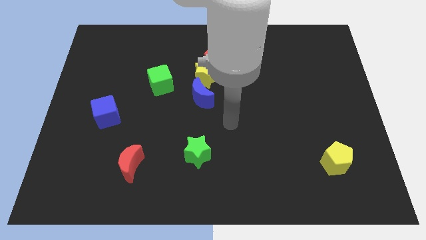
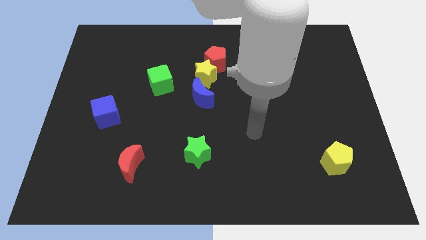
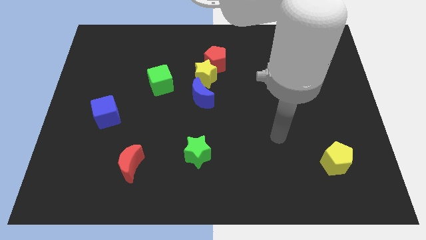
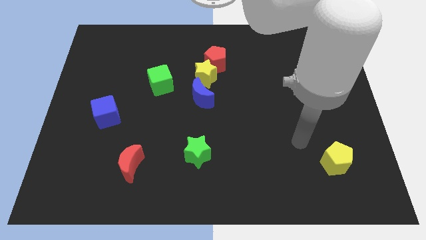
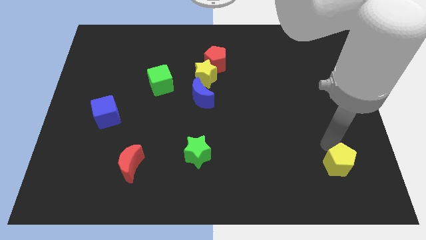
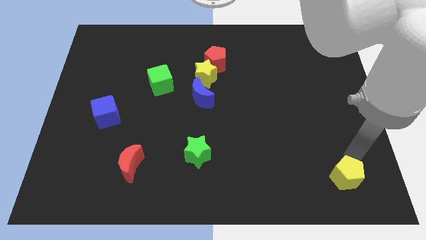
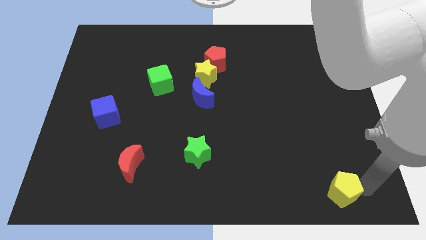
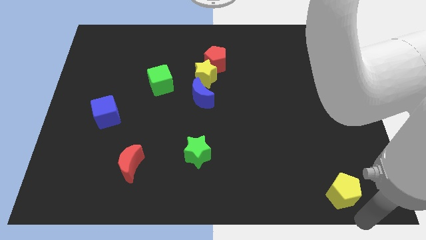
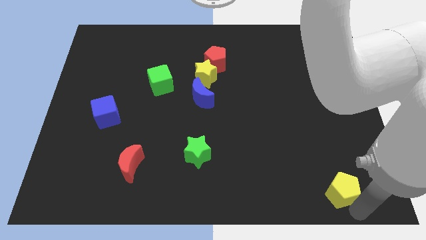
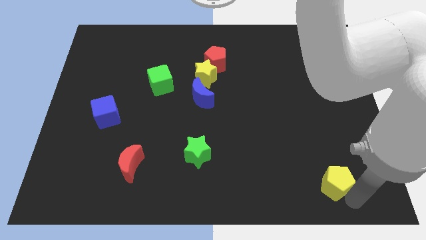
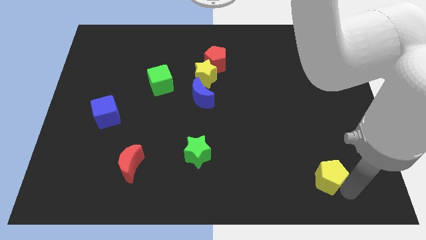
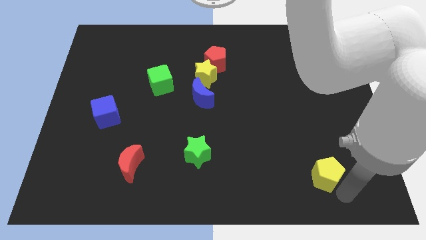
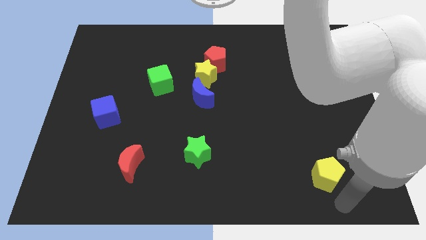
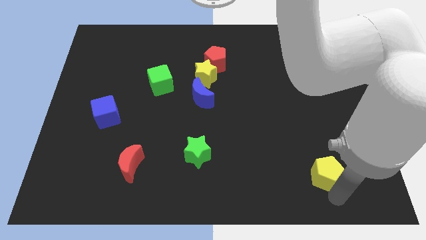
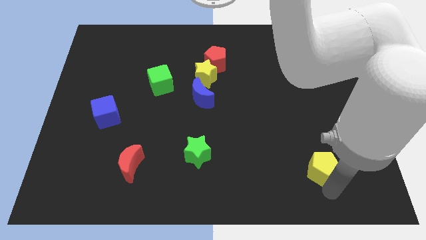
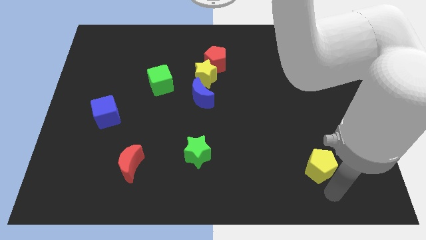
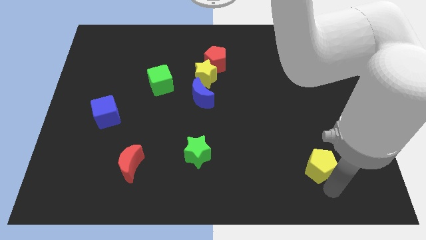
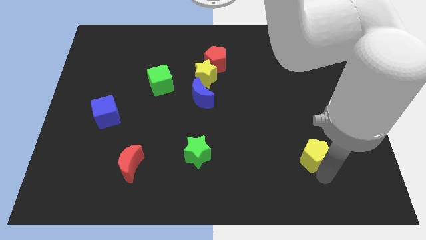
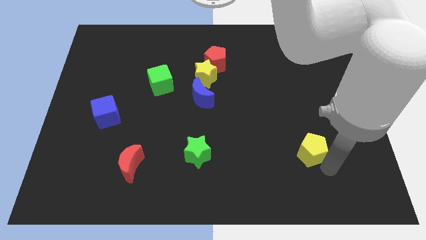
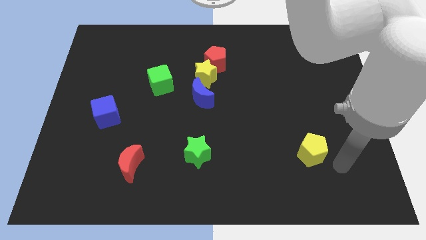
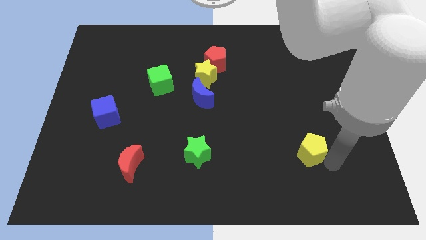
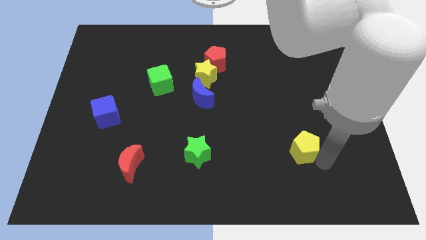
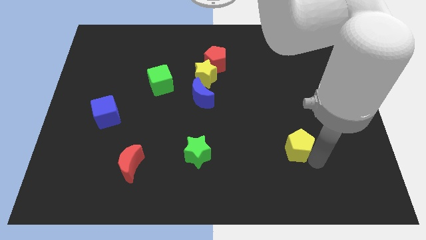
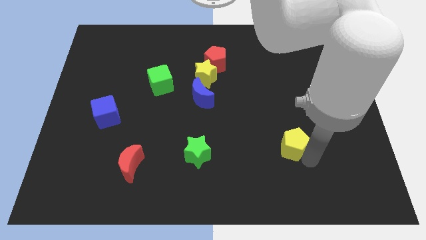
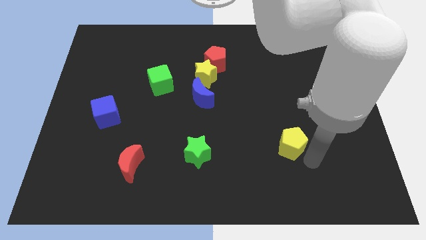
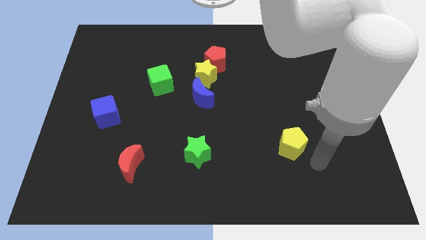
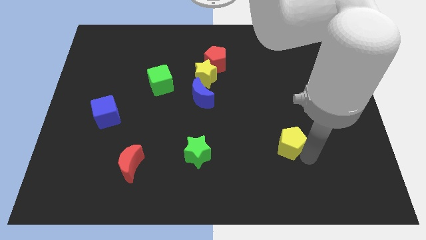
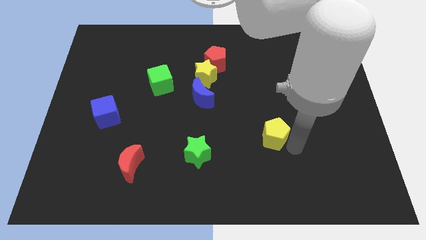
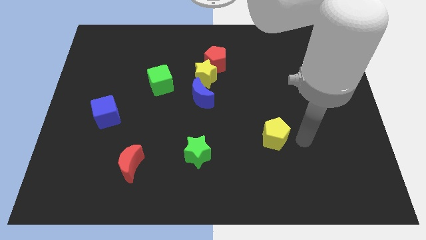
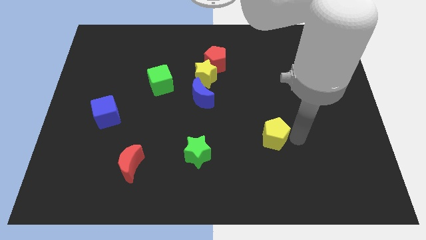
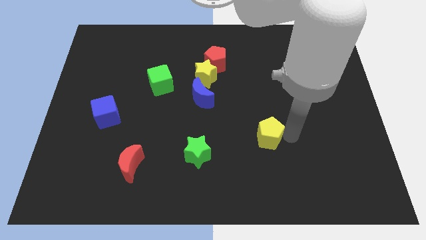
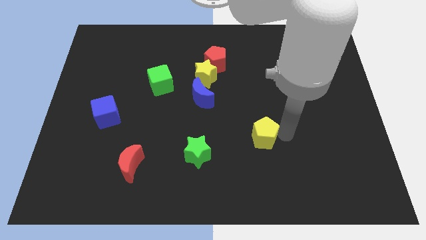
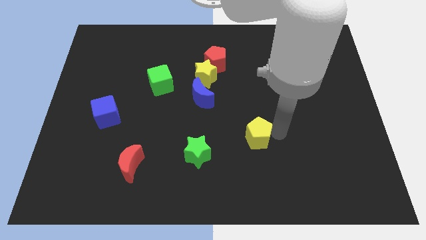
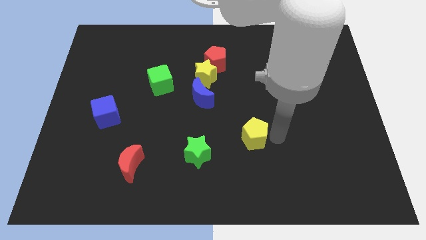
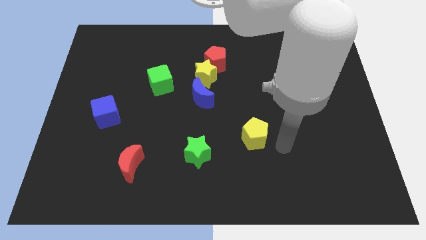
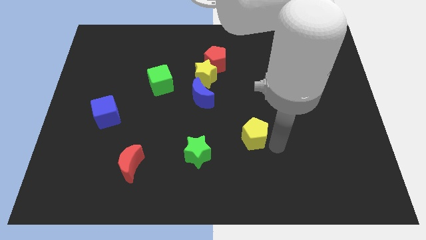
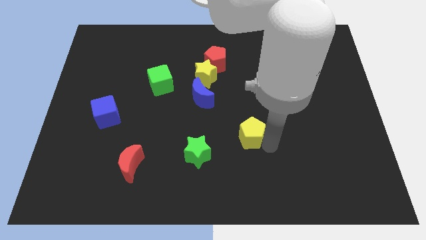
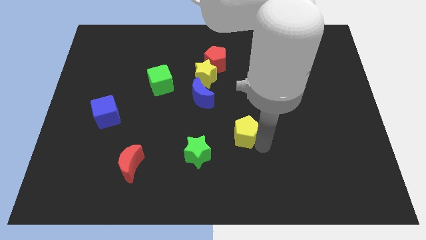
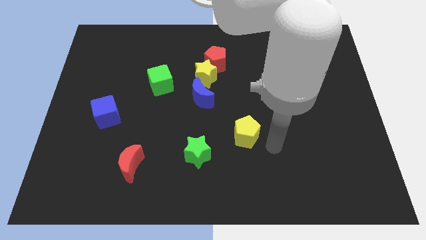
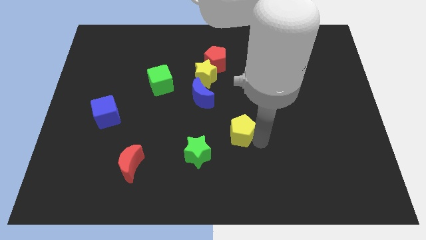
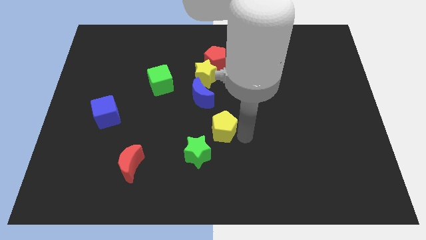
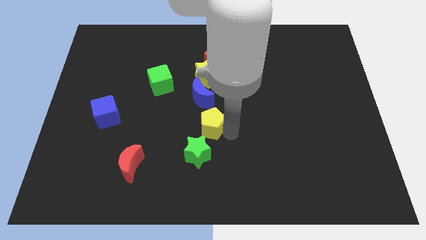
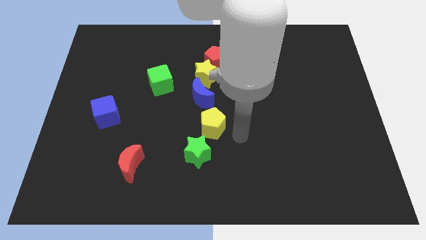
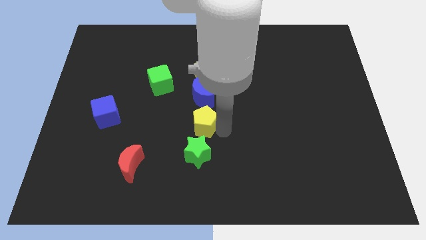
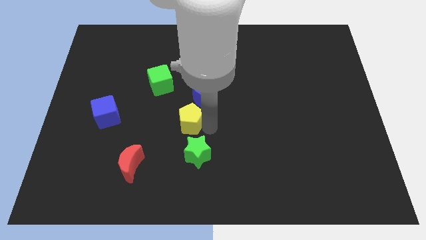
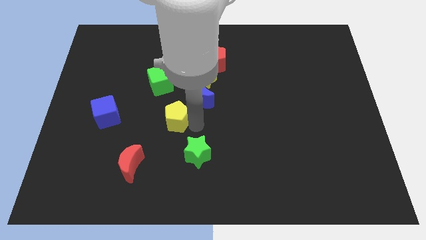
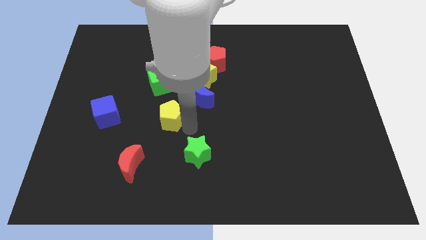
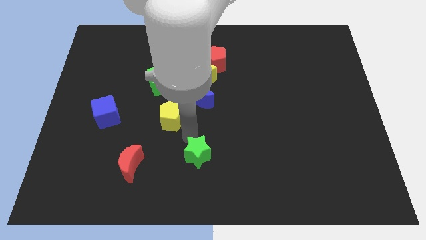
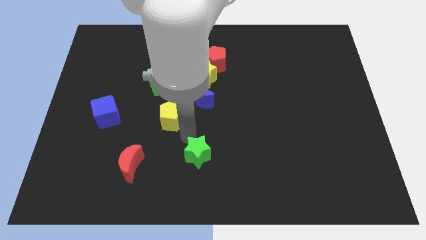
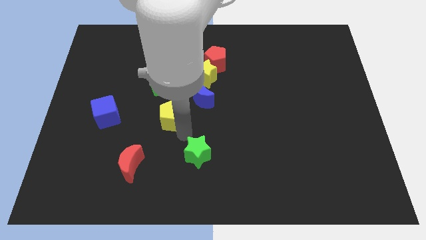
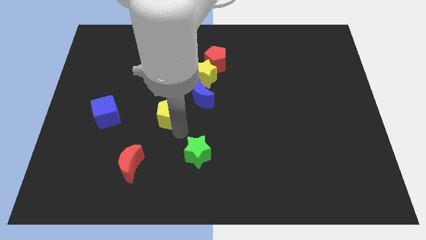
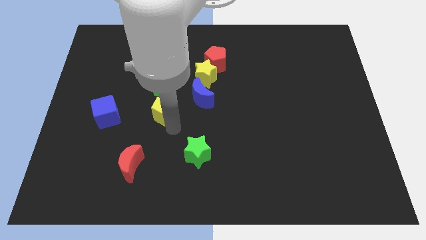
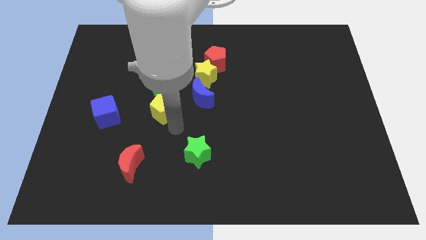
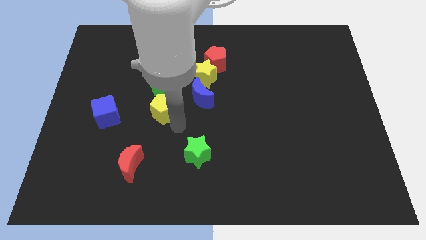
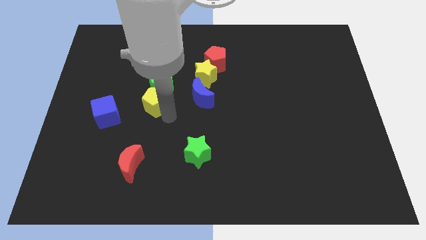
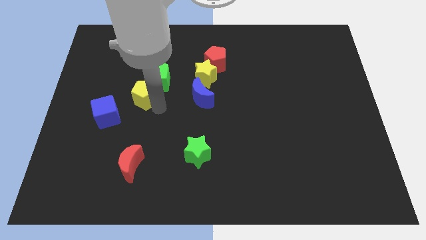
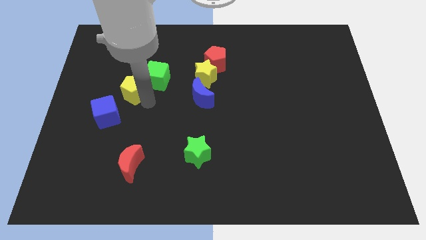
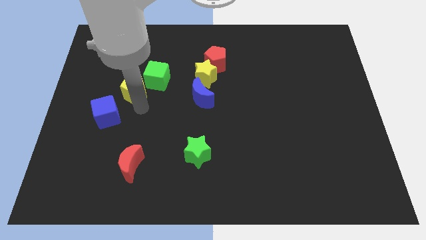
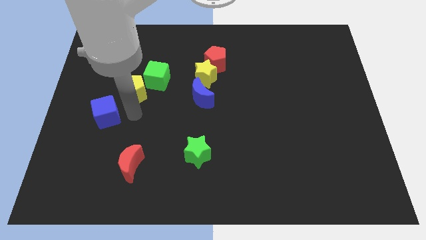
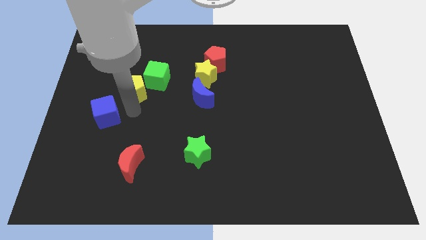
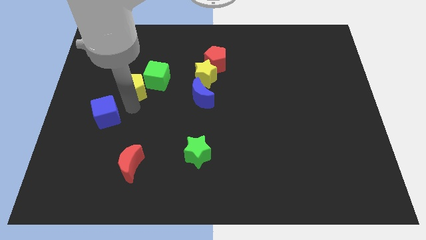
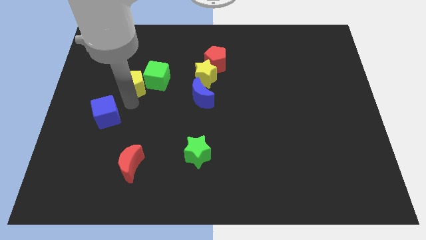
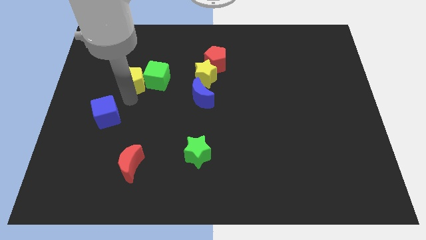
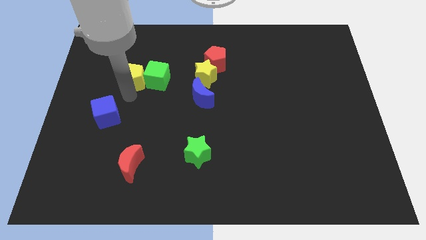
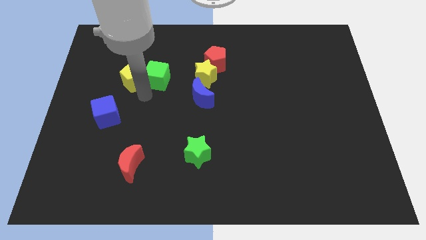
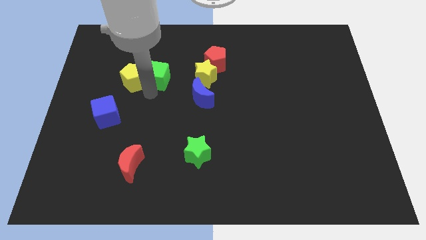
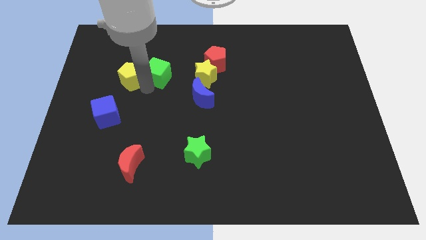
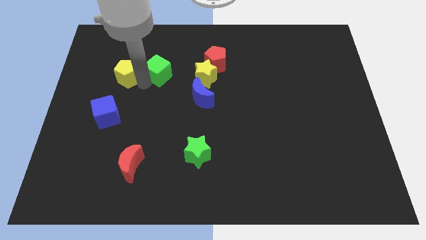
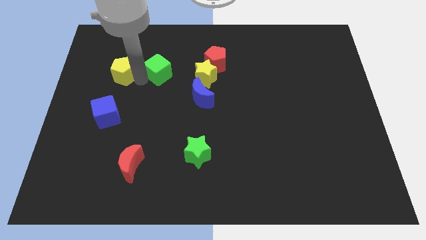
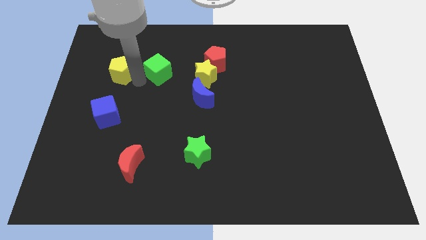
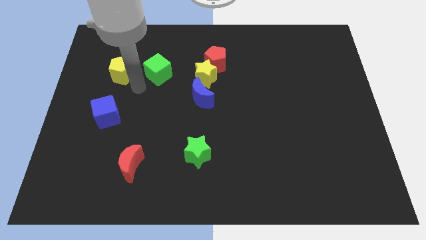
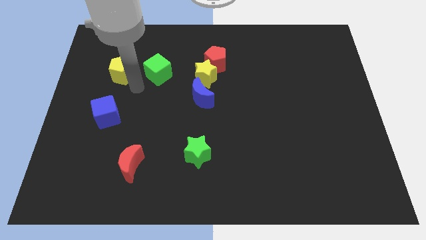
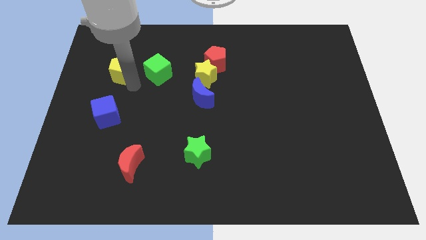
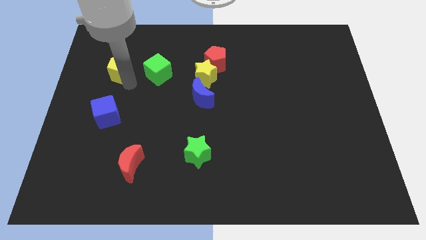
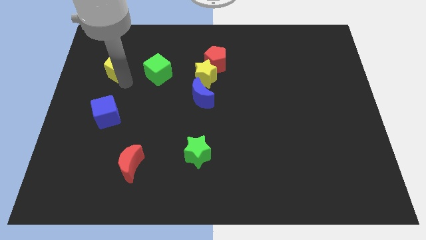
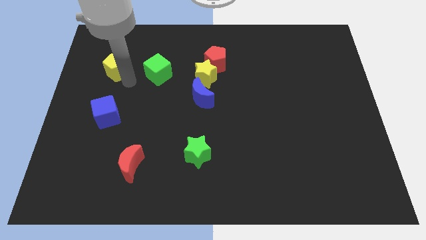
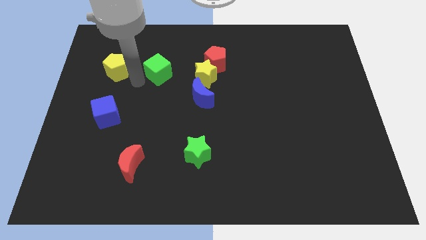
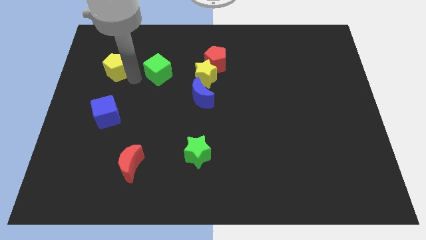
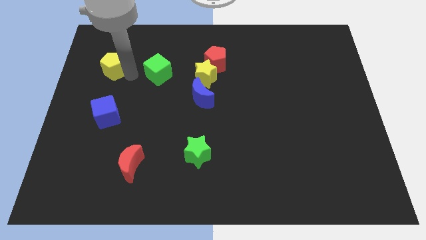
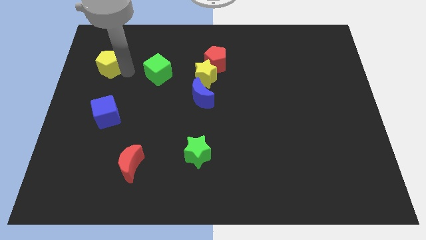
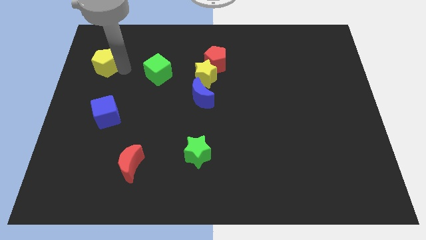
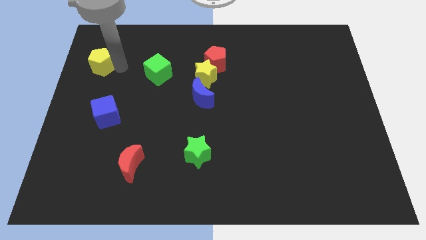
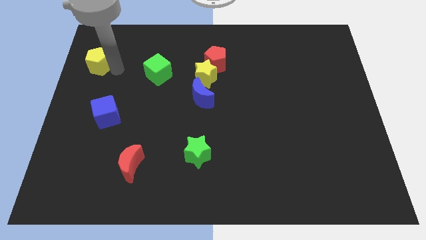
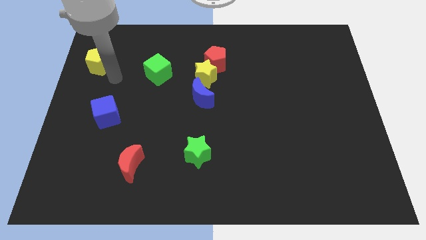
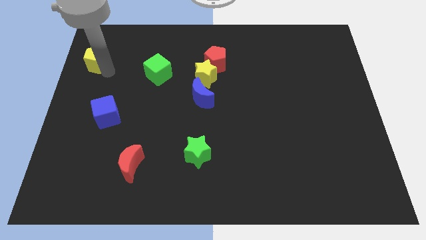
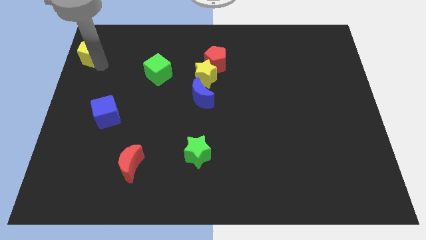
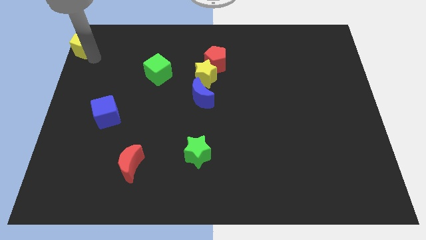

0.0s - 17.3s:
push the yellow pentagon to the upper left corner
